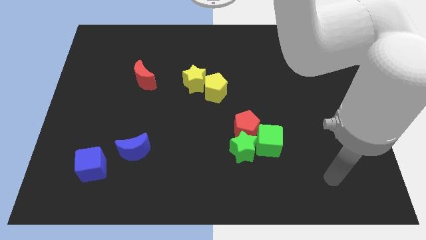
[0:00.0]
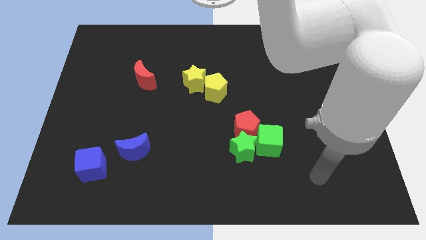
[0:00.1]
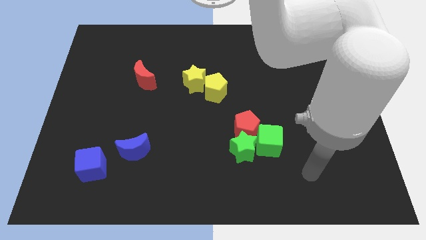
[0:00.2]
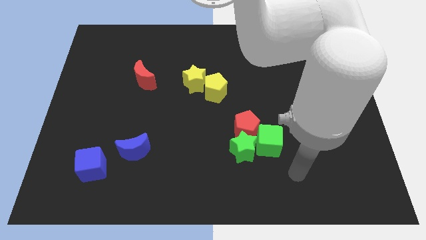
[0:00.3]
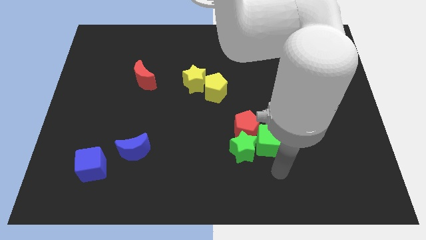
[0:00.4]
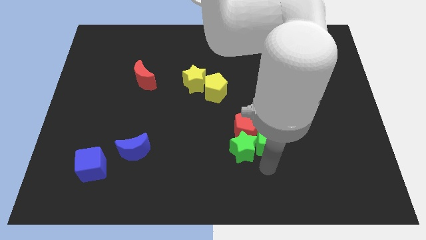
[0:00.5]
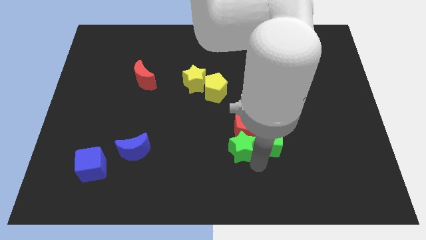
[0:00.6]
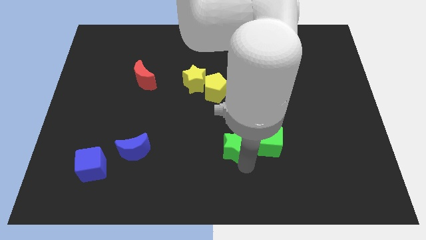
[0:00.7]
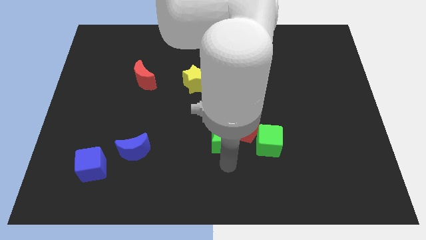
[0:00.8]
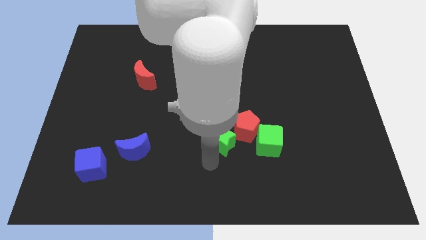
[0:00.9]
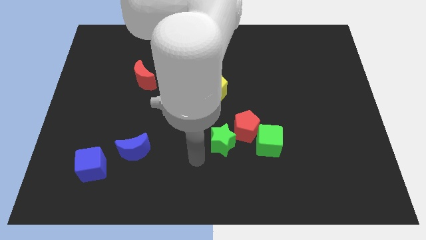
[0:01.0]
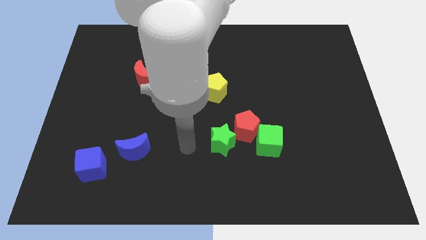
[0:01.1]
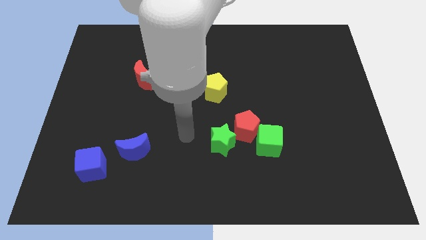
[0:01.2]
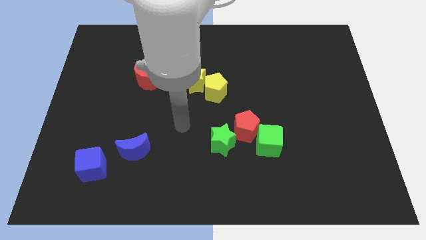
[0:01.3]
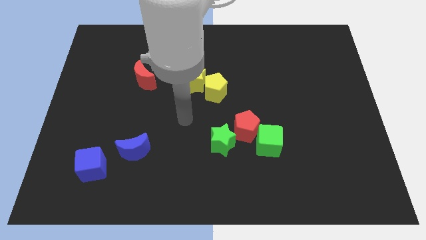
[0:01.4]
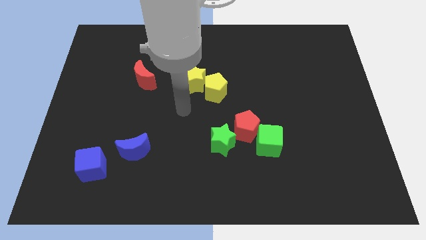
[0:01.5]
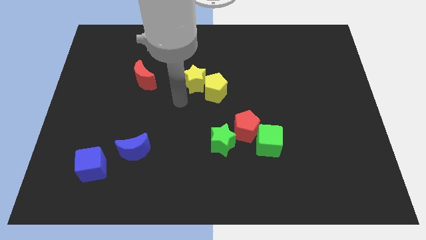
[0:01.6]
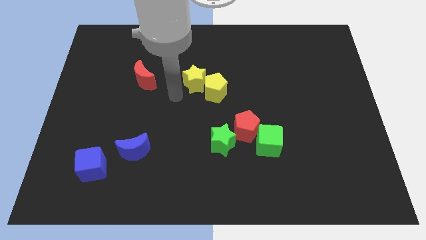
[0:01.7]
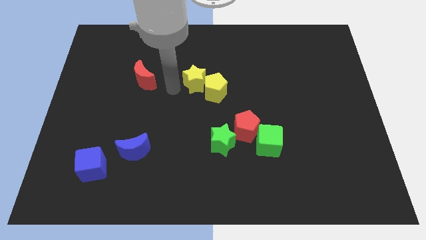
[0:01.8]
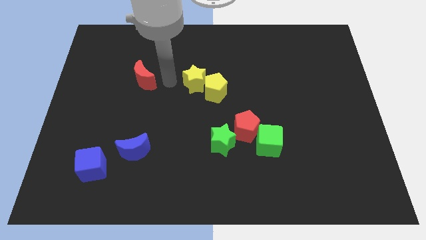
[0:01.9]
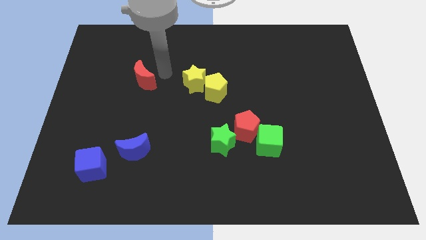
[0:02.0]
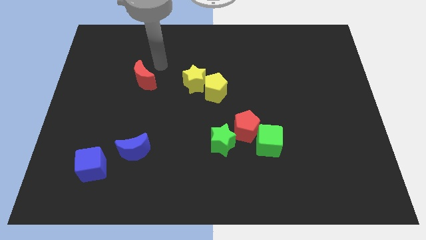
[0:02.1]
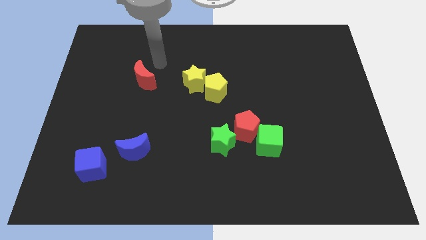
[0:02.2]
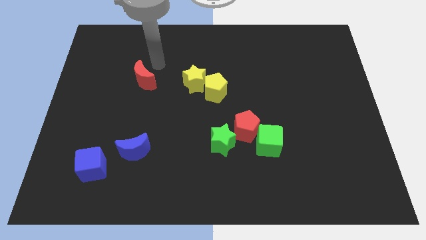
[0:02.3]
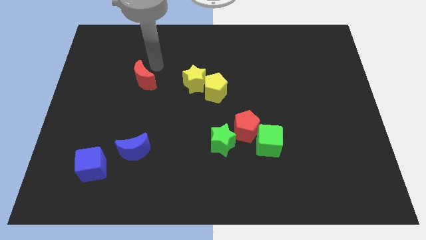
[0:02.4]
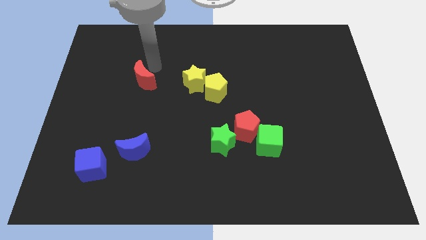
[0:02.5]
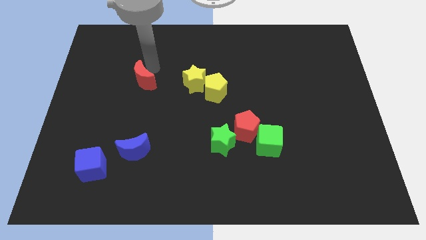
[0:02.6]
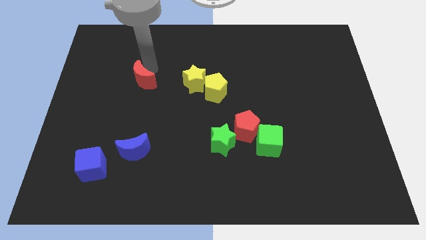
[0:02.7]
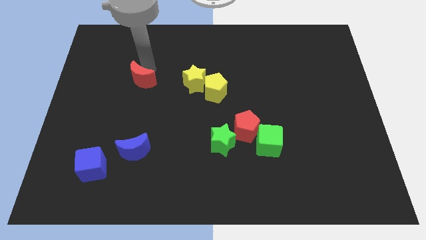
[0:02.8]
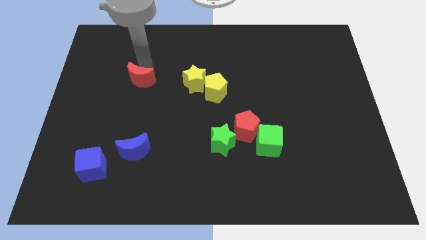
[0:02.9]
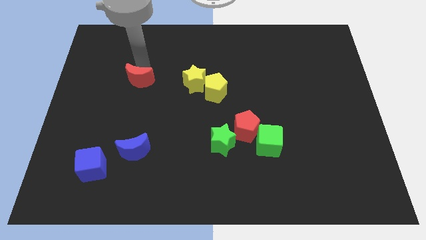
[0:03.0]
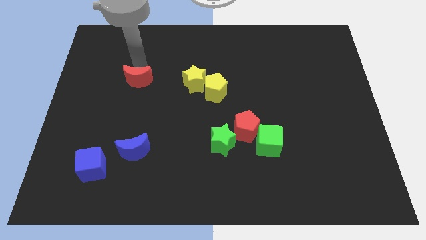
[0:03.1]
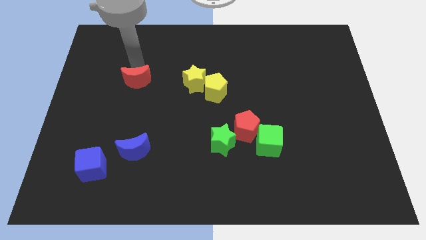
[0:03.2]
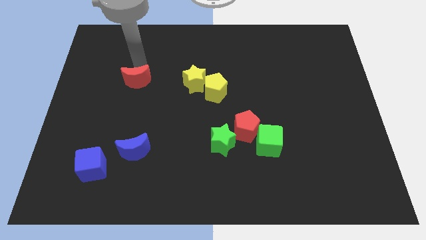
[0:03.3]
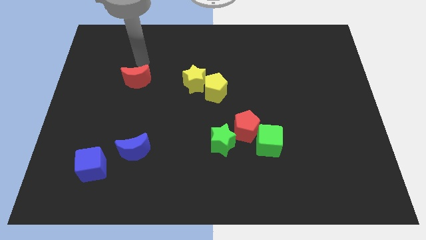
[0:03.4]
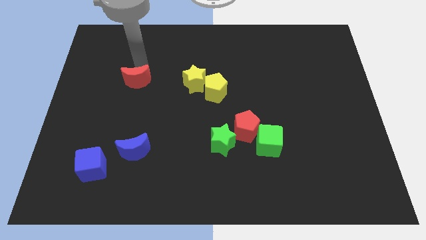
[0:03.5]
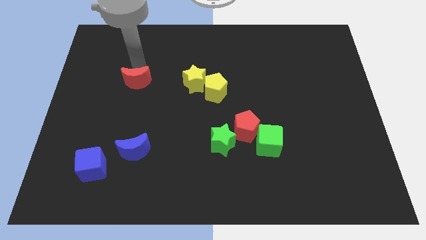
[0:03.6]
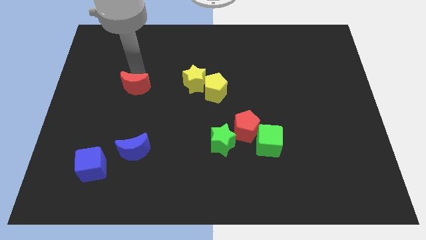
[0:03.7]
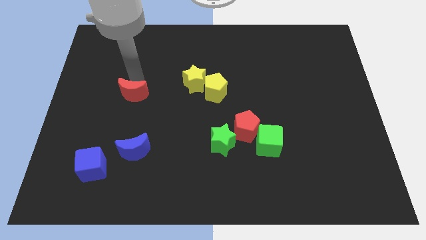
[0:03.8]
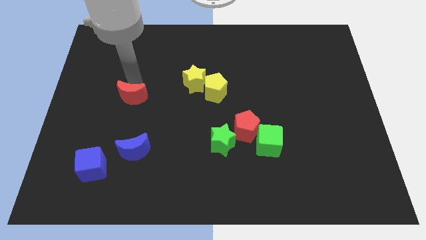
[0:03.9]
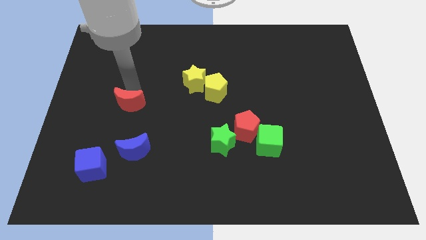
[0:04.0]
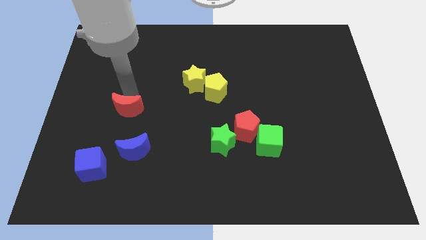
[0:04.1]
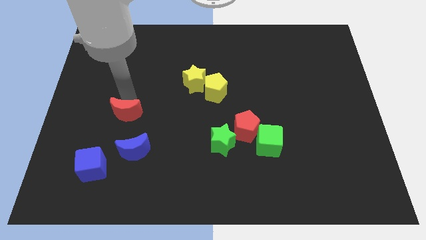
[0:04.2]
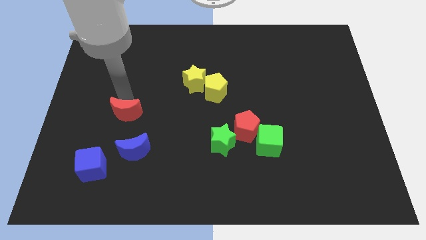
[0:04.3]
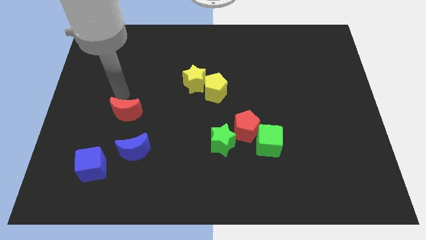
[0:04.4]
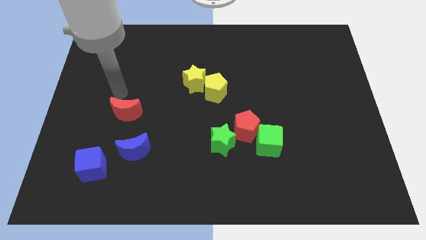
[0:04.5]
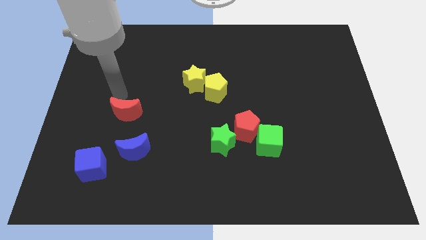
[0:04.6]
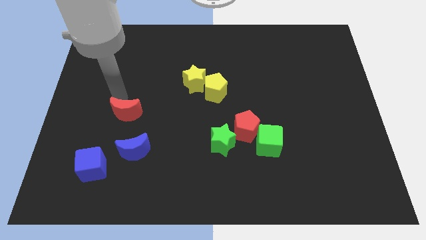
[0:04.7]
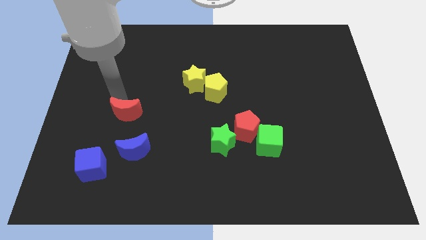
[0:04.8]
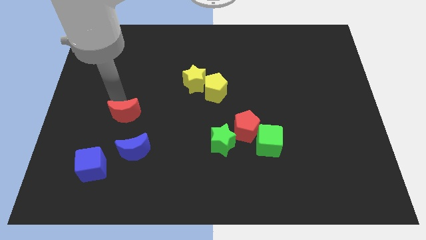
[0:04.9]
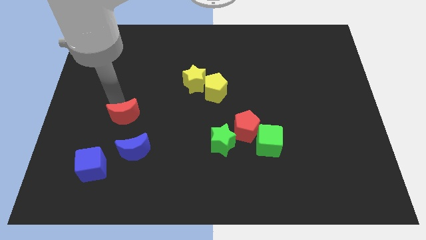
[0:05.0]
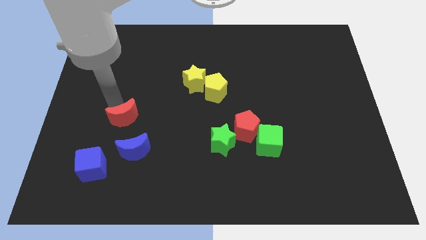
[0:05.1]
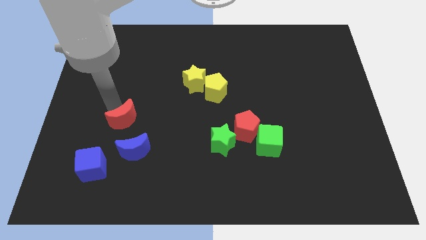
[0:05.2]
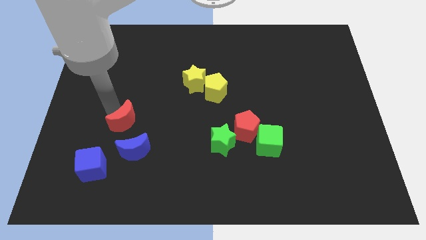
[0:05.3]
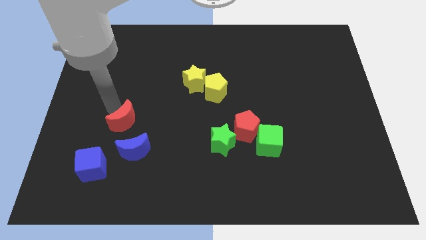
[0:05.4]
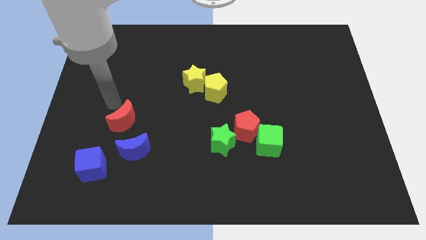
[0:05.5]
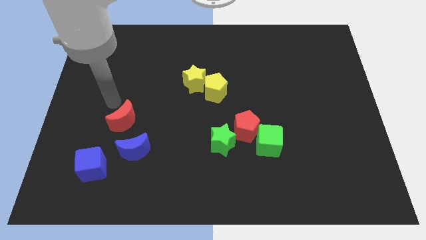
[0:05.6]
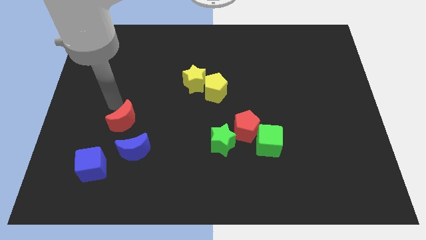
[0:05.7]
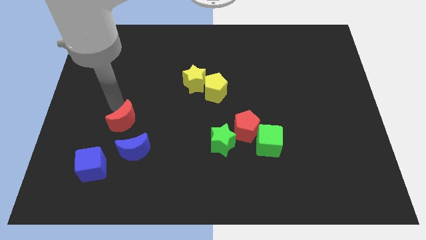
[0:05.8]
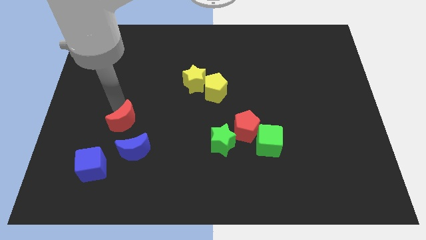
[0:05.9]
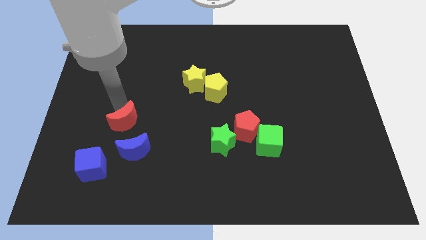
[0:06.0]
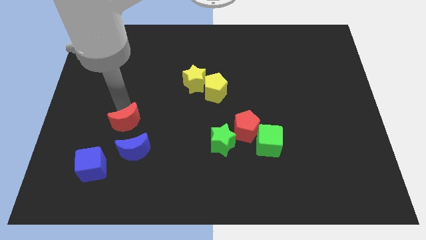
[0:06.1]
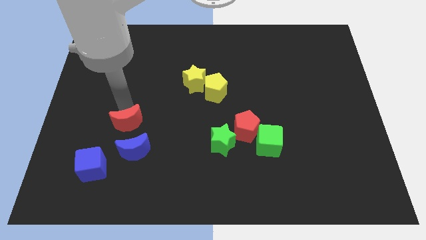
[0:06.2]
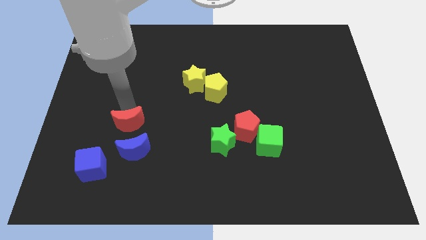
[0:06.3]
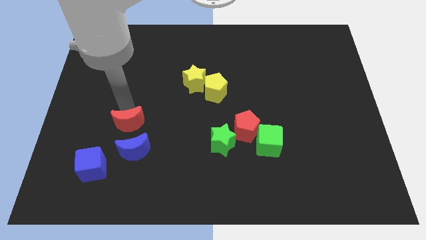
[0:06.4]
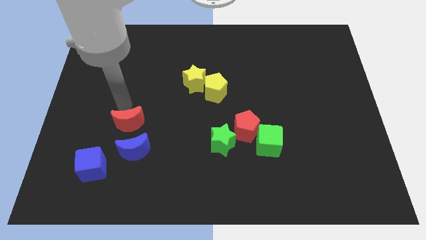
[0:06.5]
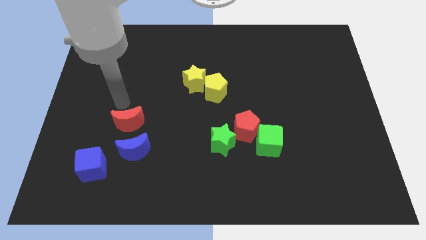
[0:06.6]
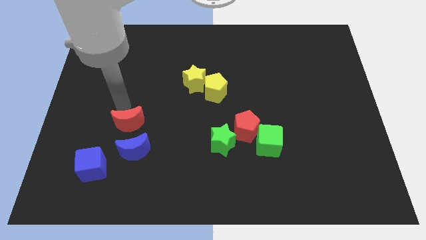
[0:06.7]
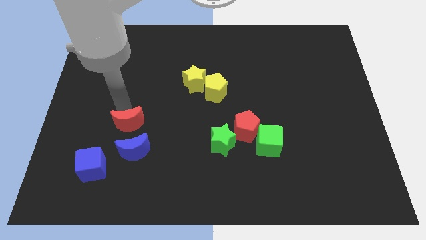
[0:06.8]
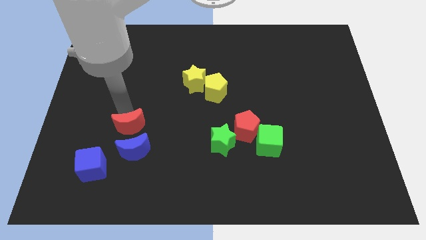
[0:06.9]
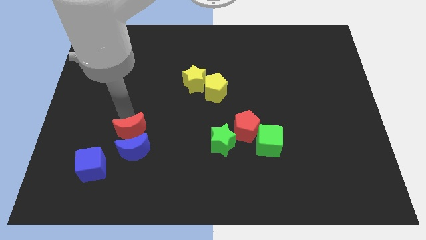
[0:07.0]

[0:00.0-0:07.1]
push the red moon next to the blue moon

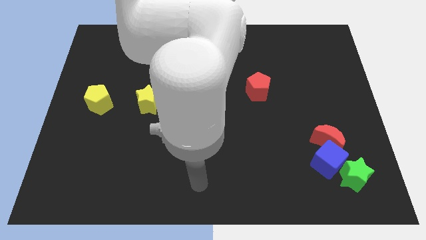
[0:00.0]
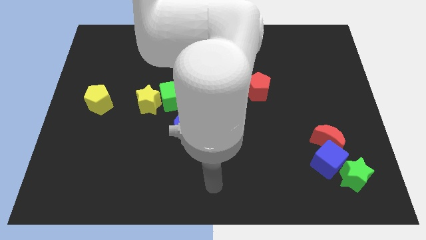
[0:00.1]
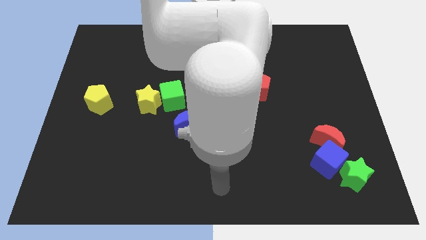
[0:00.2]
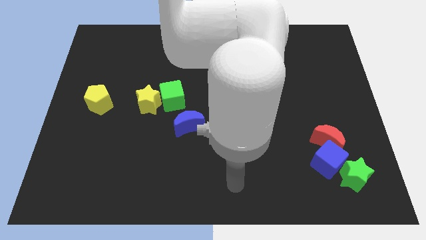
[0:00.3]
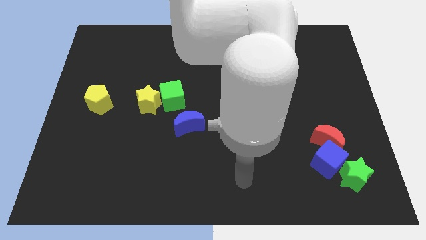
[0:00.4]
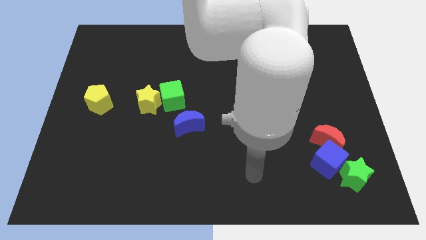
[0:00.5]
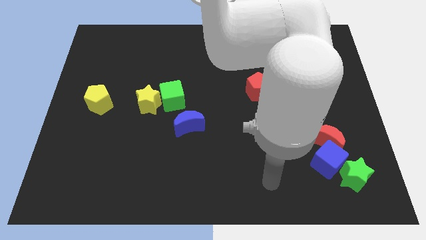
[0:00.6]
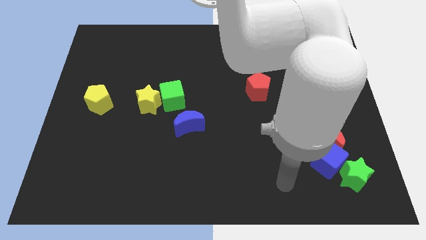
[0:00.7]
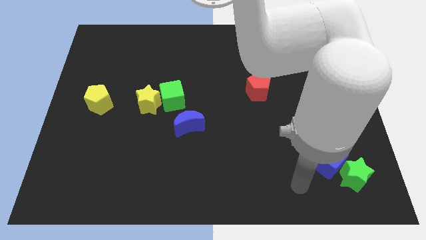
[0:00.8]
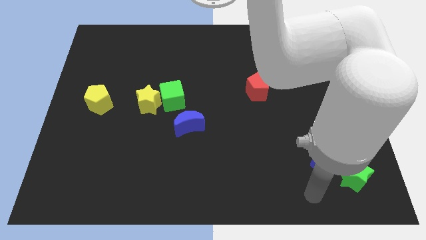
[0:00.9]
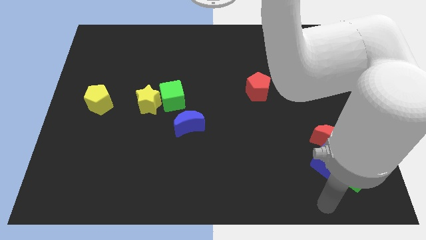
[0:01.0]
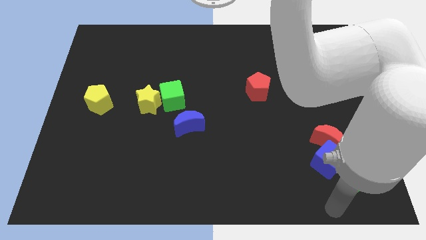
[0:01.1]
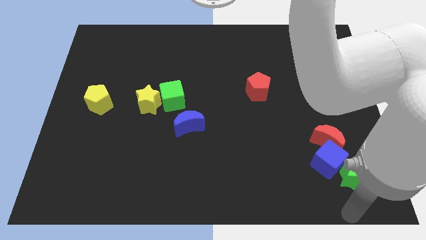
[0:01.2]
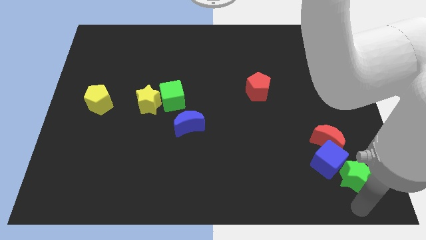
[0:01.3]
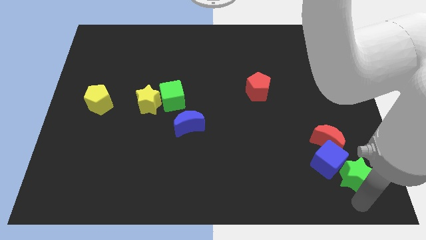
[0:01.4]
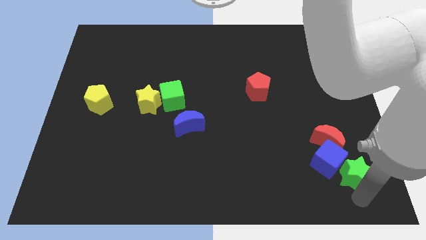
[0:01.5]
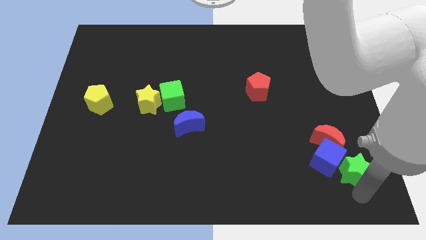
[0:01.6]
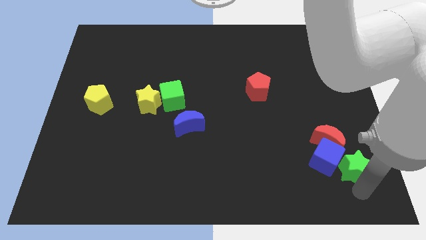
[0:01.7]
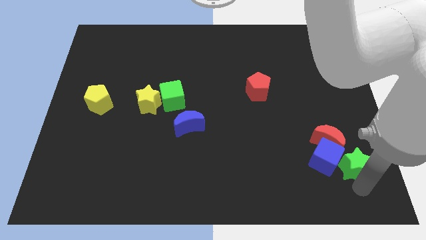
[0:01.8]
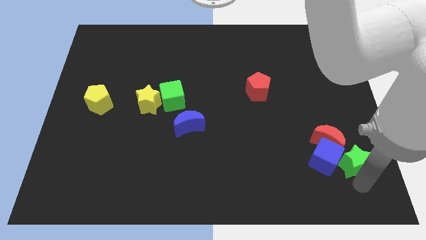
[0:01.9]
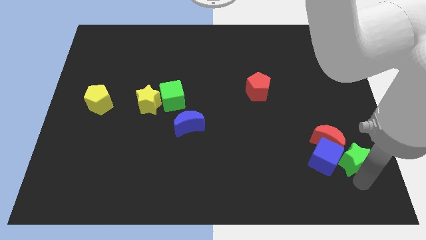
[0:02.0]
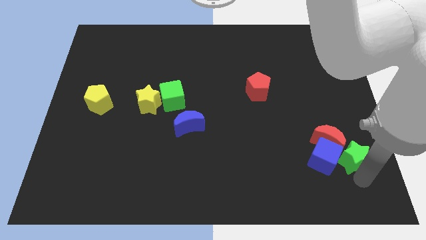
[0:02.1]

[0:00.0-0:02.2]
slide the green star towards the red moon
